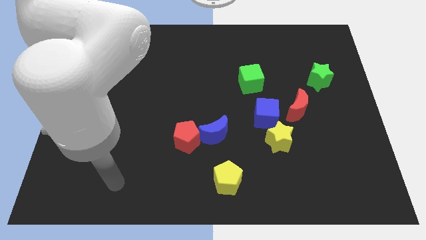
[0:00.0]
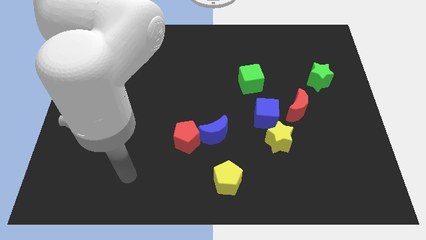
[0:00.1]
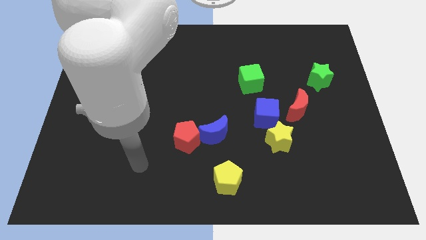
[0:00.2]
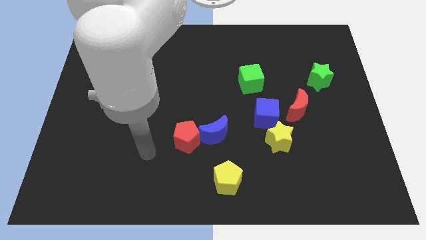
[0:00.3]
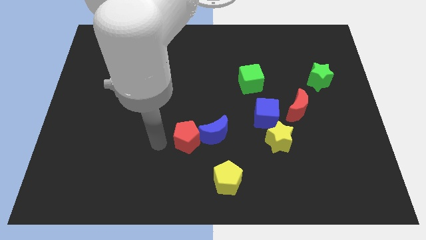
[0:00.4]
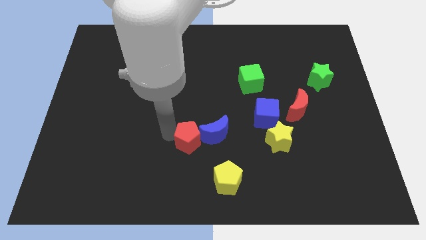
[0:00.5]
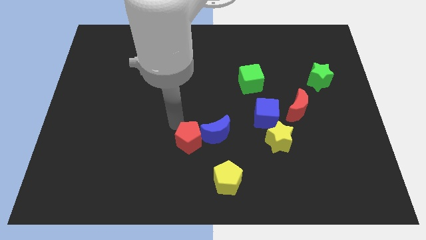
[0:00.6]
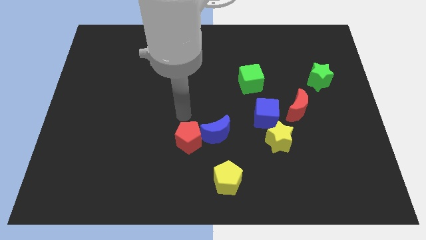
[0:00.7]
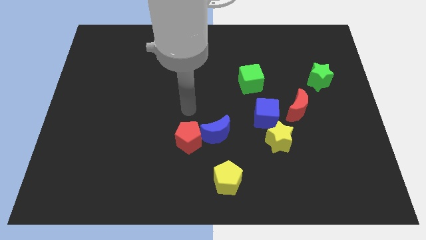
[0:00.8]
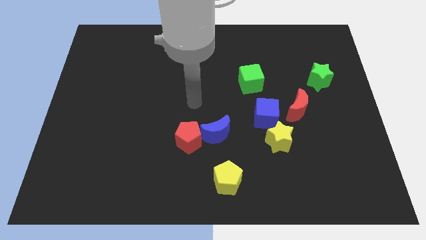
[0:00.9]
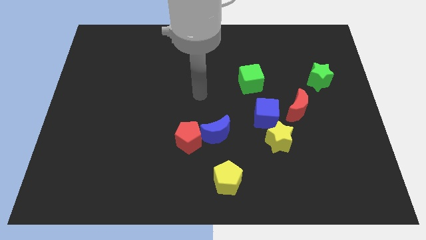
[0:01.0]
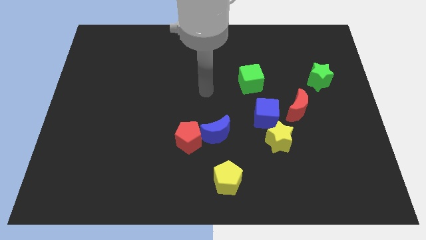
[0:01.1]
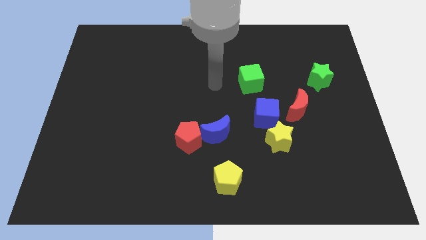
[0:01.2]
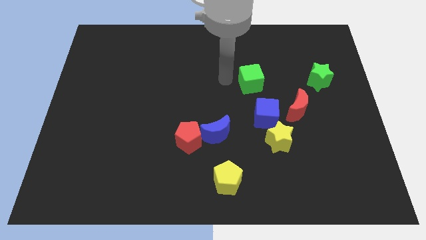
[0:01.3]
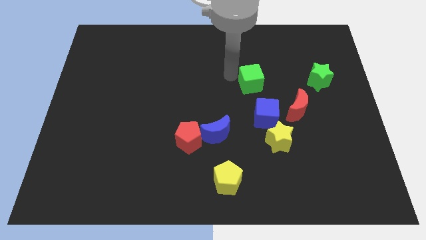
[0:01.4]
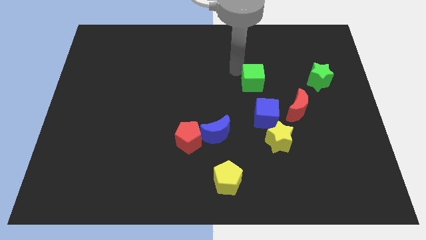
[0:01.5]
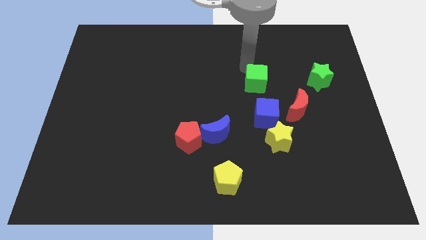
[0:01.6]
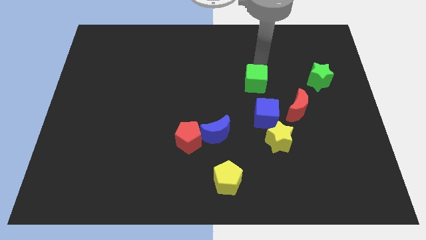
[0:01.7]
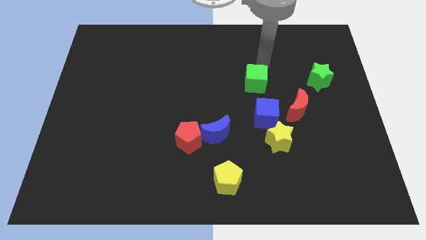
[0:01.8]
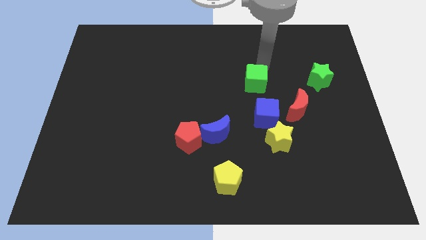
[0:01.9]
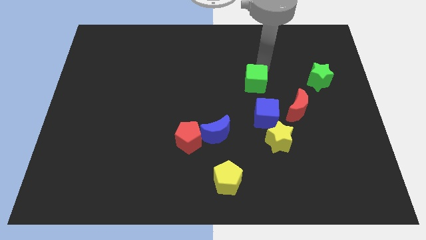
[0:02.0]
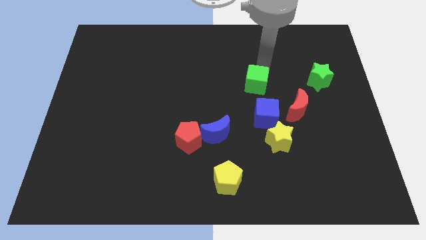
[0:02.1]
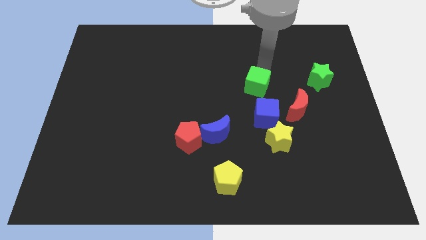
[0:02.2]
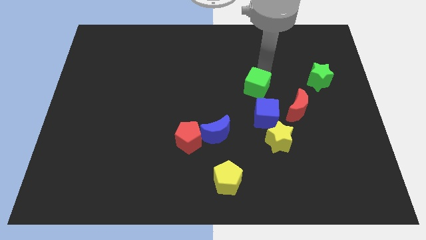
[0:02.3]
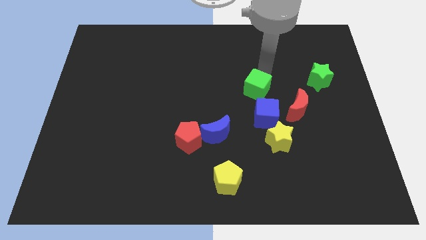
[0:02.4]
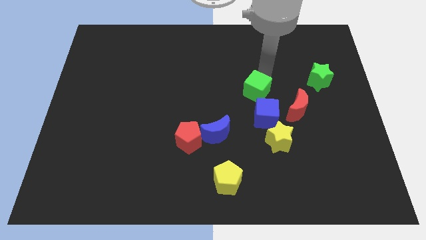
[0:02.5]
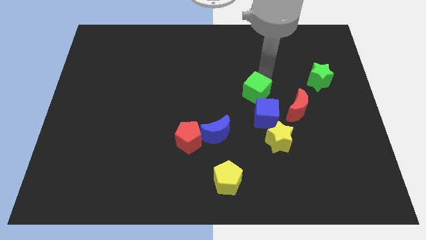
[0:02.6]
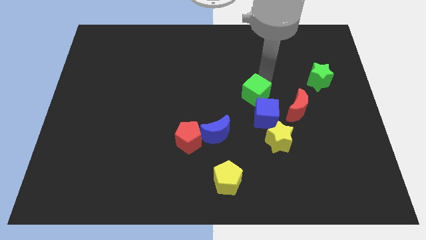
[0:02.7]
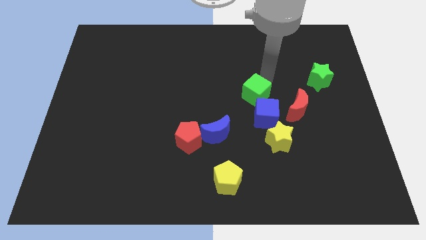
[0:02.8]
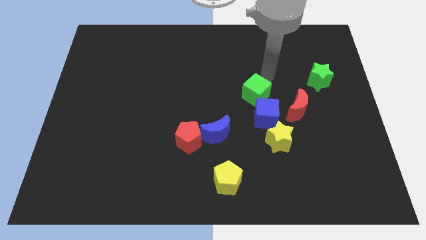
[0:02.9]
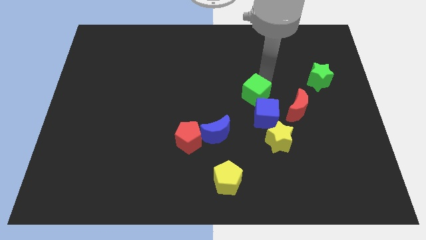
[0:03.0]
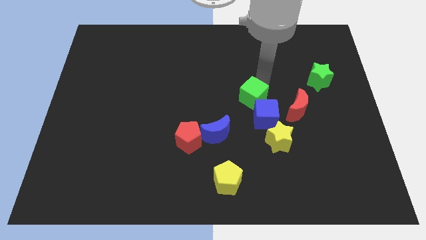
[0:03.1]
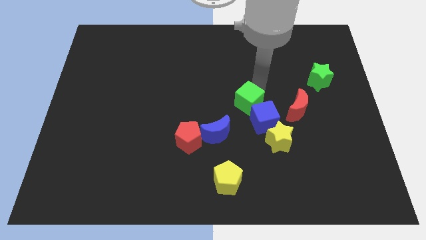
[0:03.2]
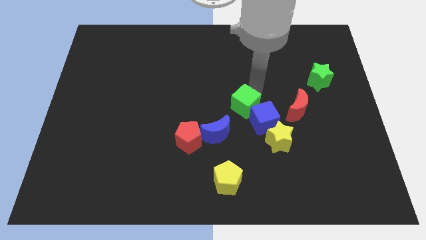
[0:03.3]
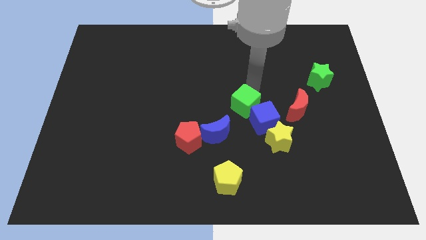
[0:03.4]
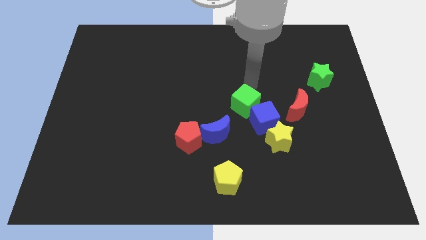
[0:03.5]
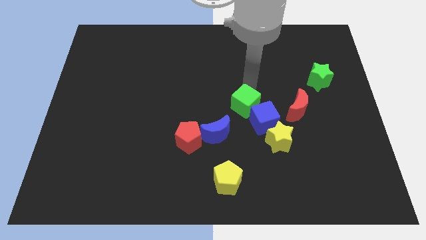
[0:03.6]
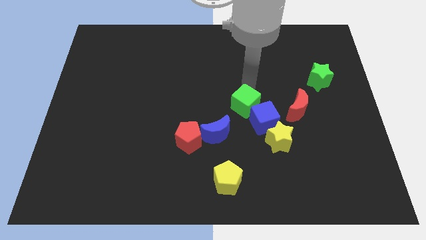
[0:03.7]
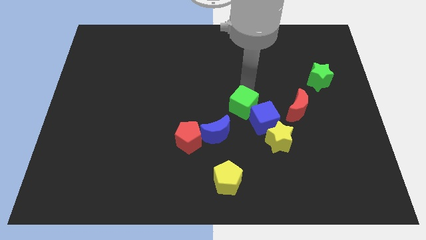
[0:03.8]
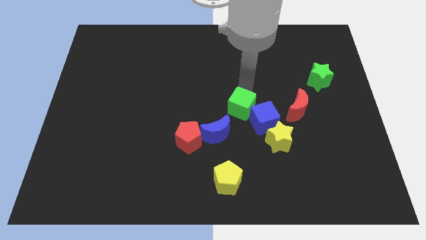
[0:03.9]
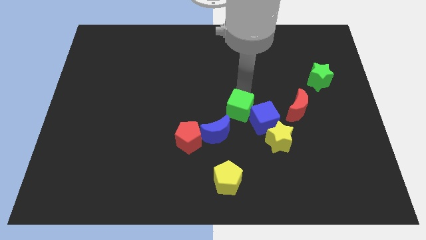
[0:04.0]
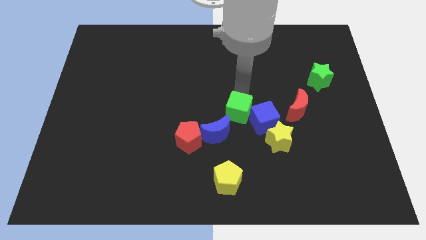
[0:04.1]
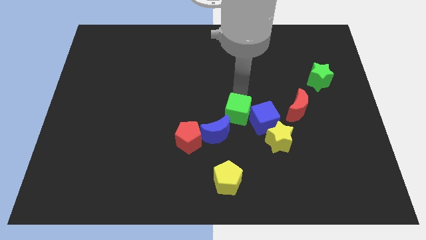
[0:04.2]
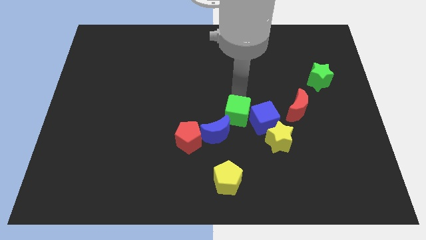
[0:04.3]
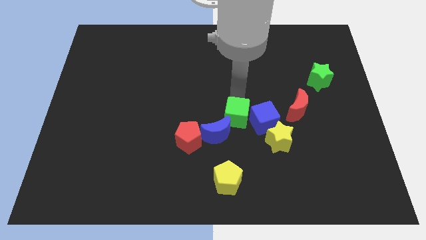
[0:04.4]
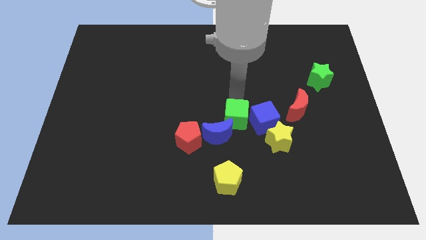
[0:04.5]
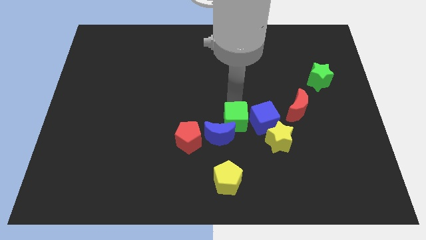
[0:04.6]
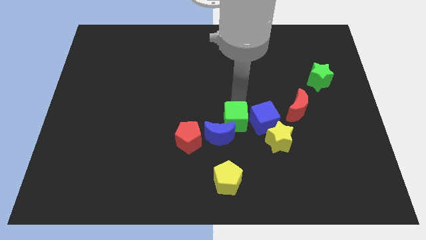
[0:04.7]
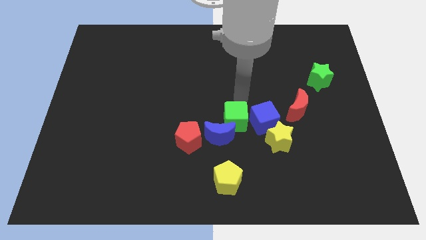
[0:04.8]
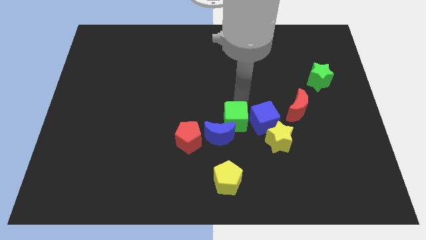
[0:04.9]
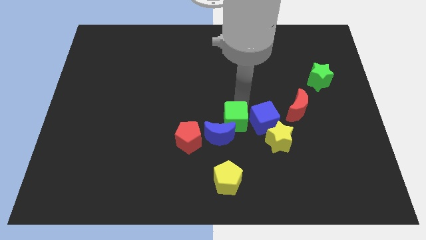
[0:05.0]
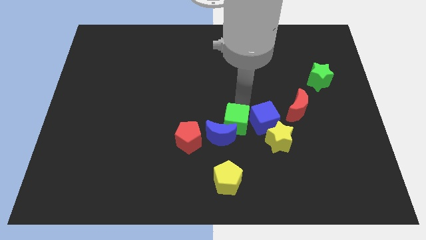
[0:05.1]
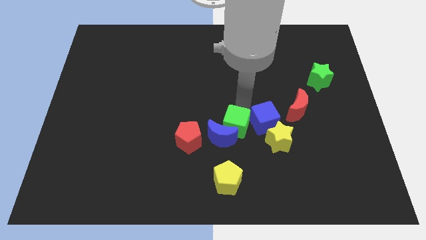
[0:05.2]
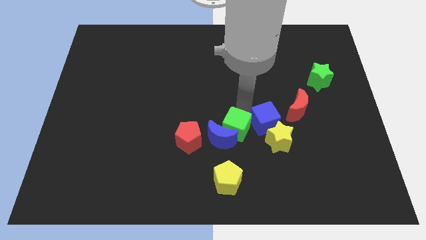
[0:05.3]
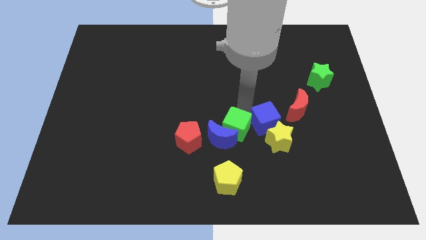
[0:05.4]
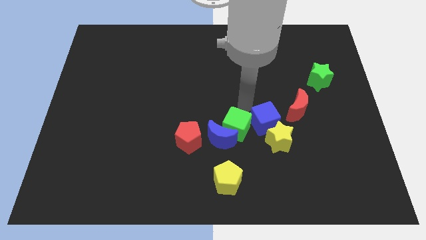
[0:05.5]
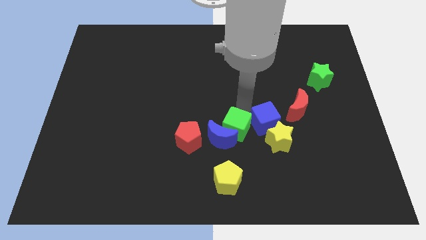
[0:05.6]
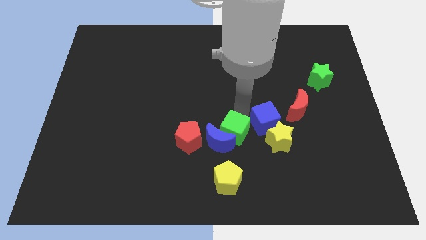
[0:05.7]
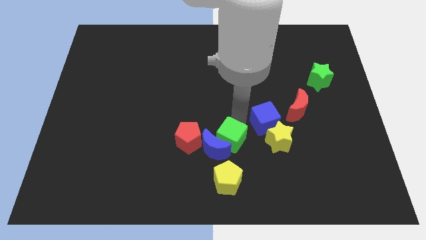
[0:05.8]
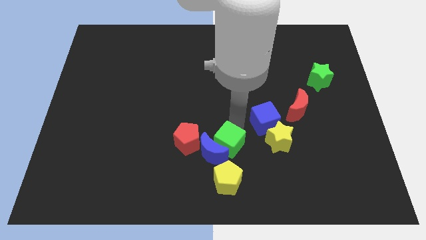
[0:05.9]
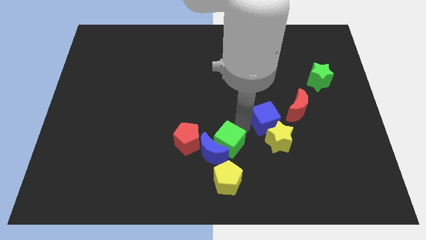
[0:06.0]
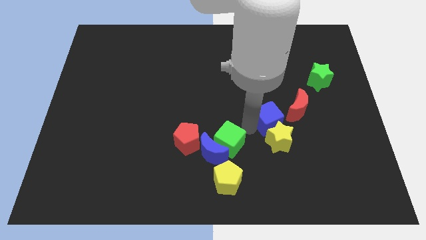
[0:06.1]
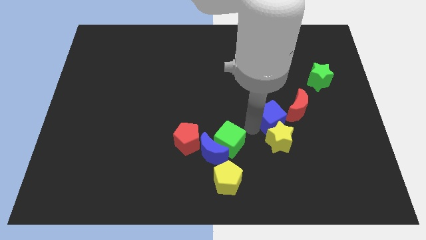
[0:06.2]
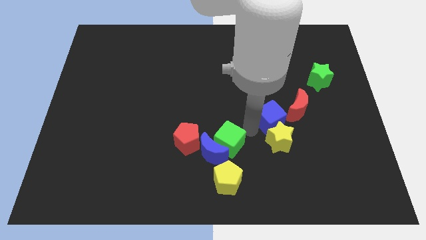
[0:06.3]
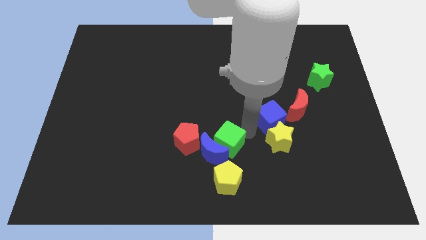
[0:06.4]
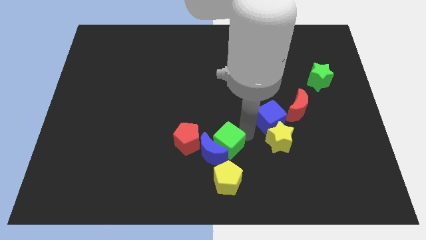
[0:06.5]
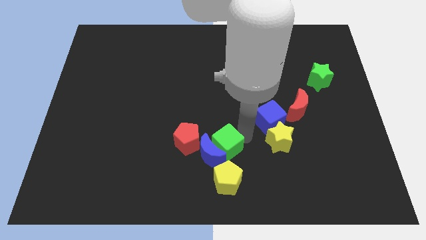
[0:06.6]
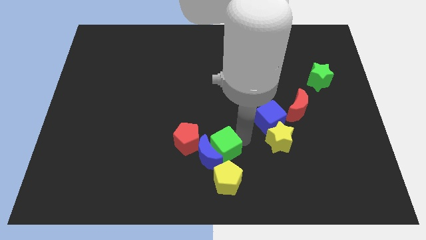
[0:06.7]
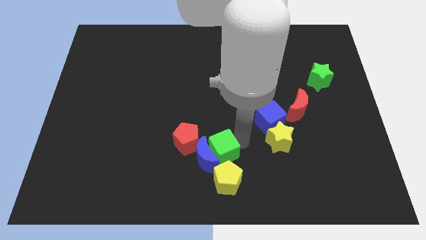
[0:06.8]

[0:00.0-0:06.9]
put the green cube diagonally up and to the left of the yellow pentagon
